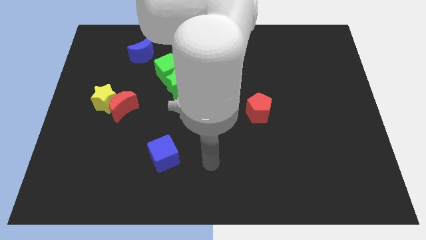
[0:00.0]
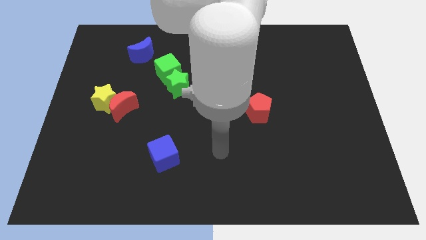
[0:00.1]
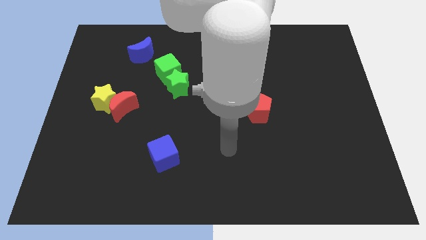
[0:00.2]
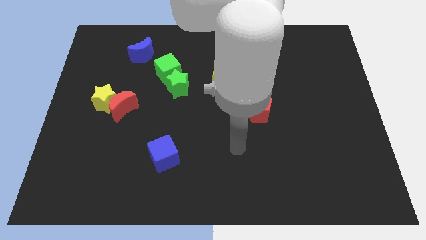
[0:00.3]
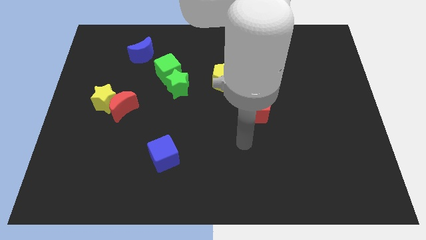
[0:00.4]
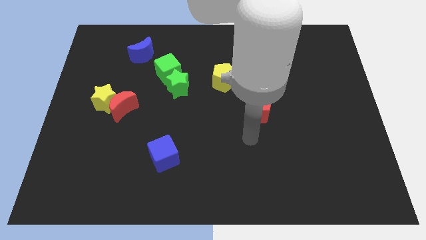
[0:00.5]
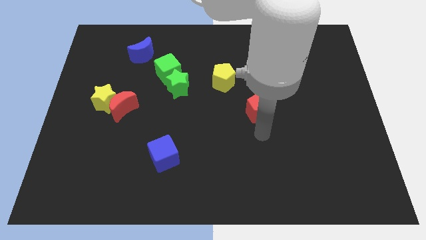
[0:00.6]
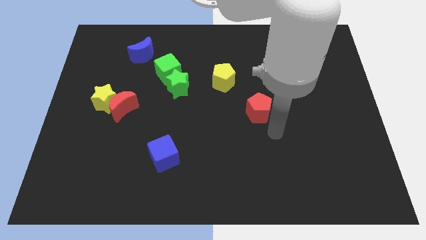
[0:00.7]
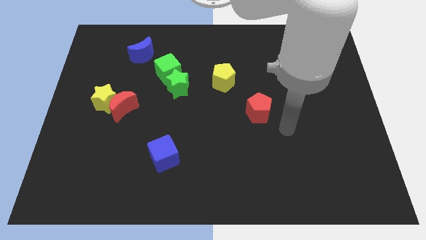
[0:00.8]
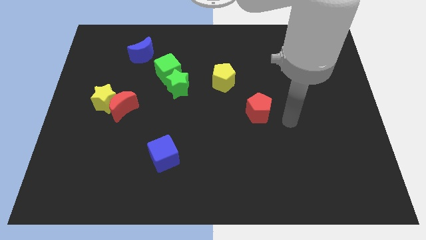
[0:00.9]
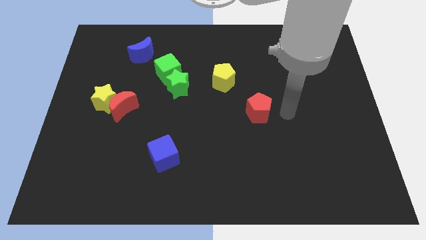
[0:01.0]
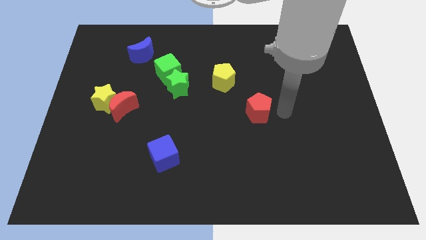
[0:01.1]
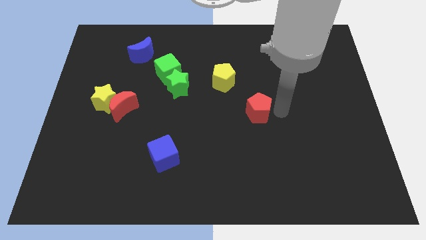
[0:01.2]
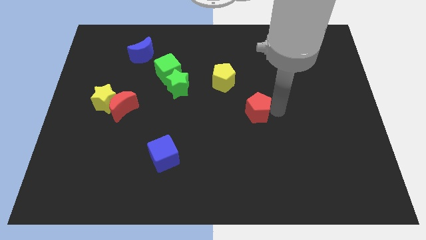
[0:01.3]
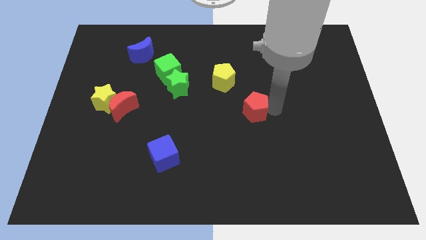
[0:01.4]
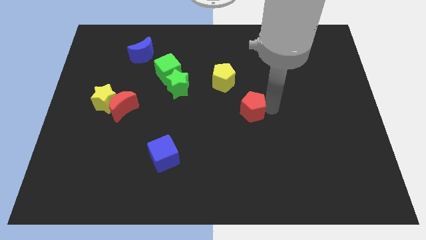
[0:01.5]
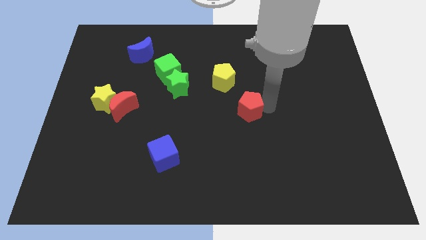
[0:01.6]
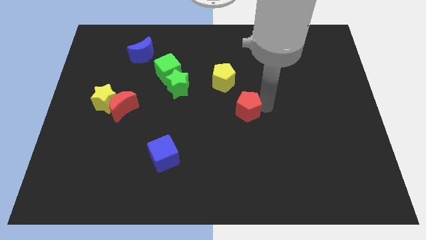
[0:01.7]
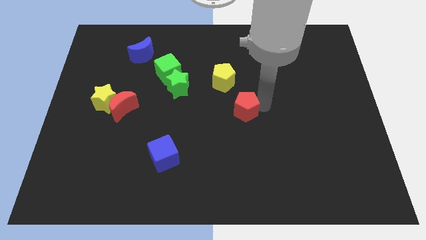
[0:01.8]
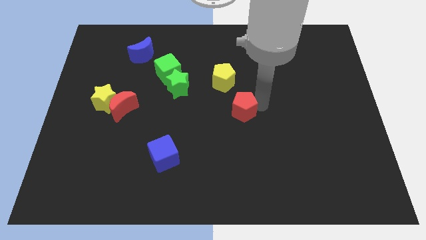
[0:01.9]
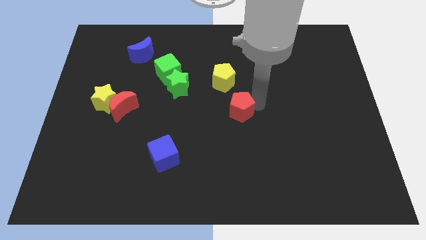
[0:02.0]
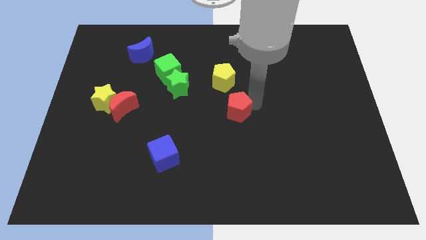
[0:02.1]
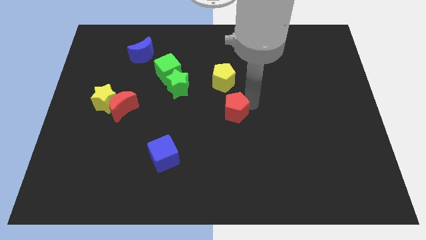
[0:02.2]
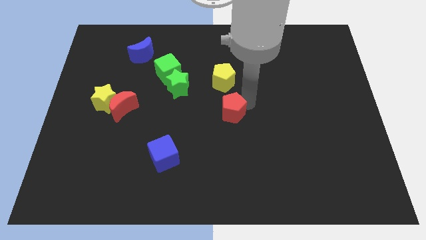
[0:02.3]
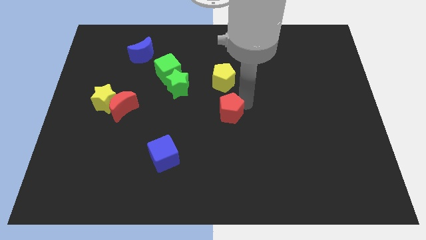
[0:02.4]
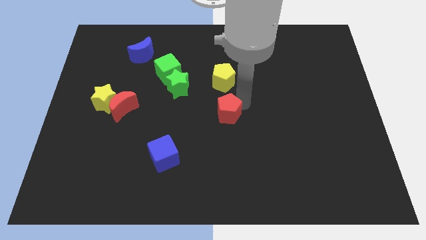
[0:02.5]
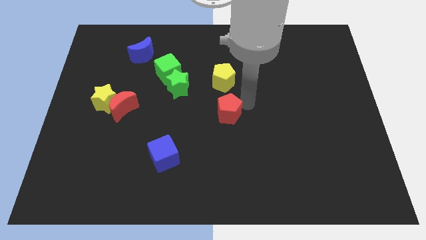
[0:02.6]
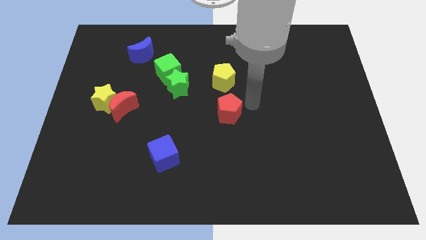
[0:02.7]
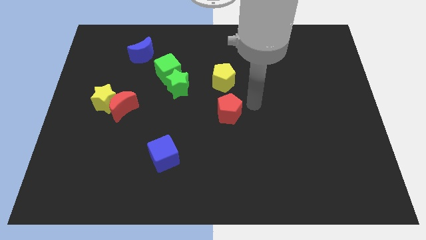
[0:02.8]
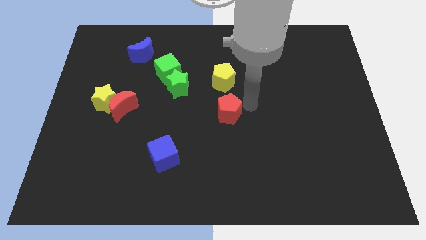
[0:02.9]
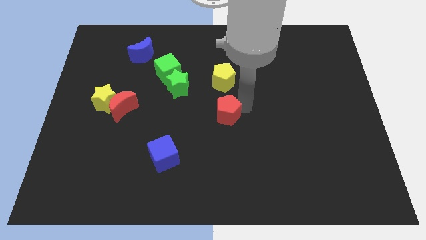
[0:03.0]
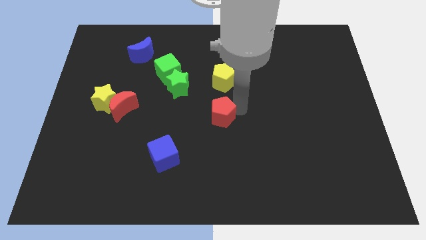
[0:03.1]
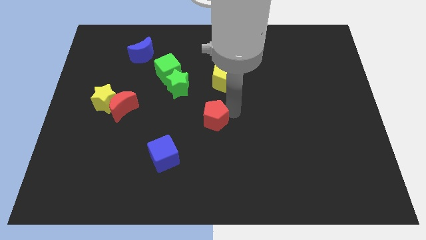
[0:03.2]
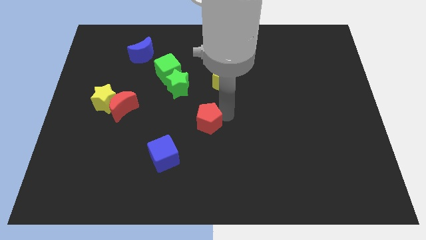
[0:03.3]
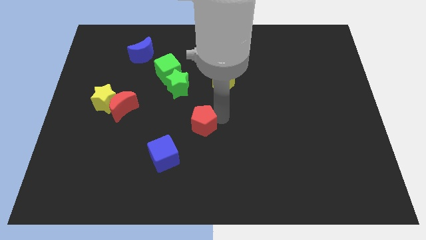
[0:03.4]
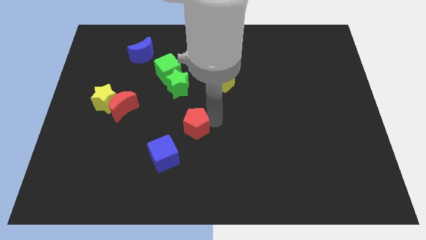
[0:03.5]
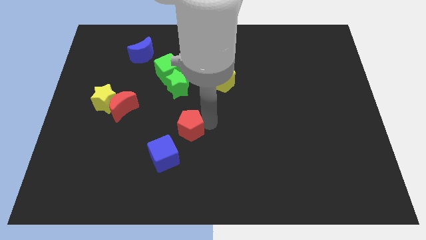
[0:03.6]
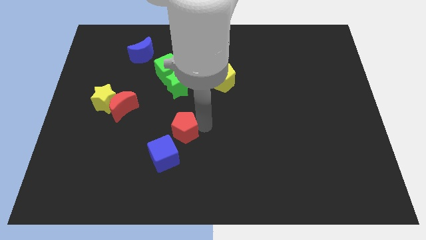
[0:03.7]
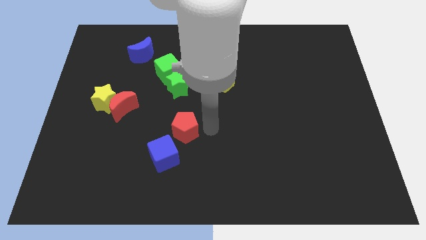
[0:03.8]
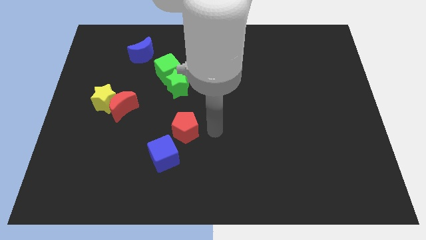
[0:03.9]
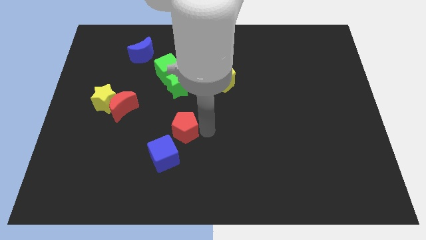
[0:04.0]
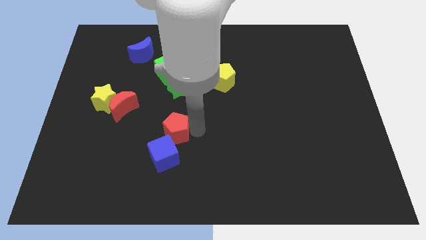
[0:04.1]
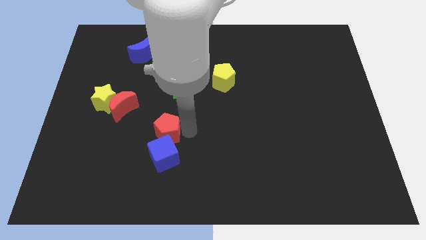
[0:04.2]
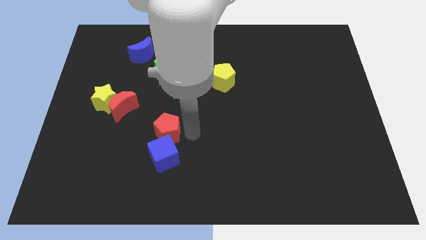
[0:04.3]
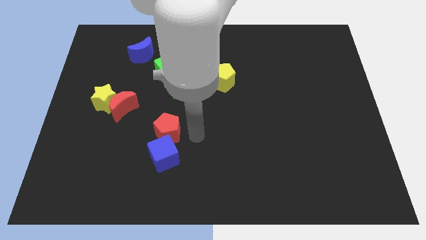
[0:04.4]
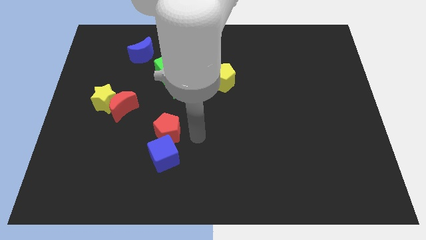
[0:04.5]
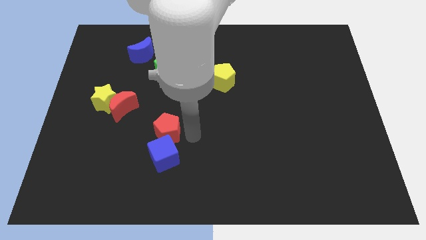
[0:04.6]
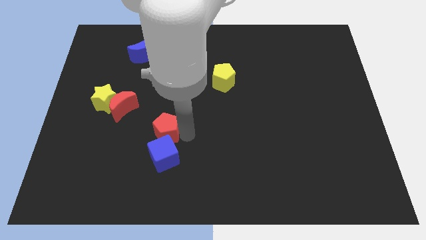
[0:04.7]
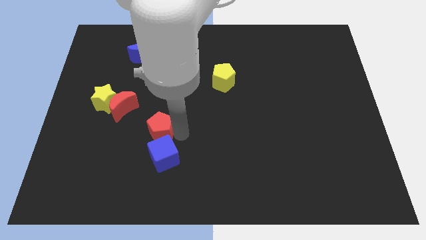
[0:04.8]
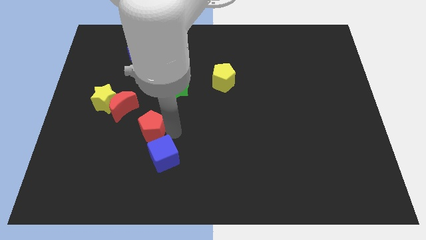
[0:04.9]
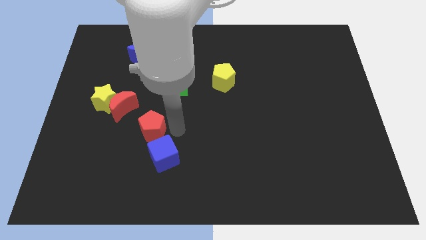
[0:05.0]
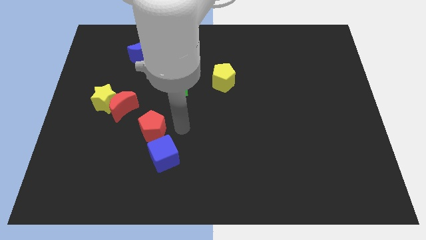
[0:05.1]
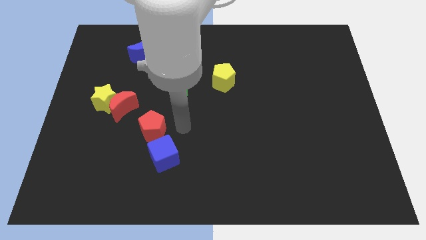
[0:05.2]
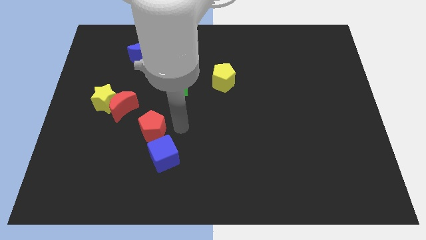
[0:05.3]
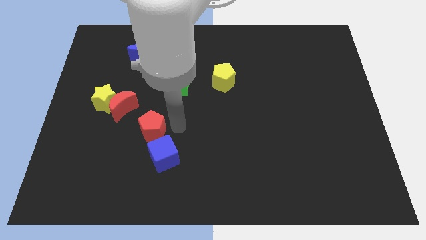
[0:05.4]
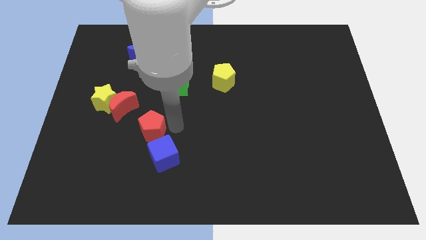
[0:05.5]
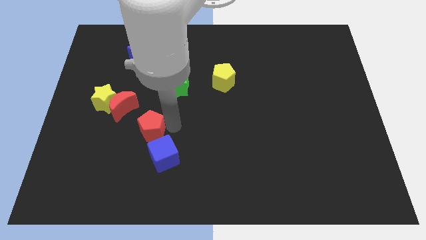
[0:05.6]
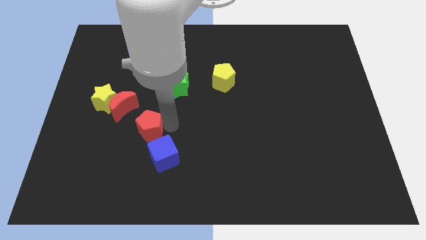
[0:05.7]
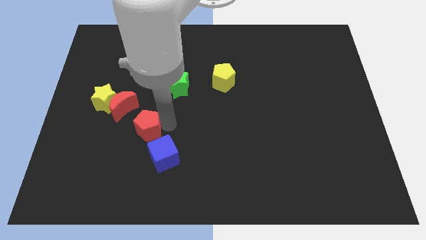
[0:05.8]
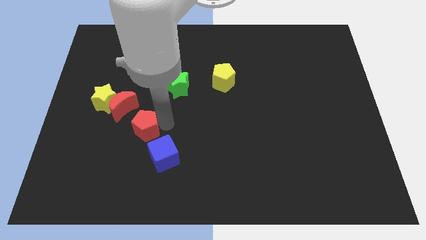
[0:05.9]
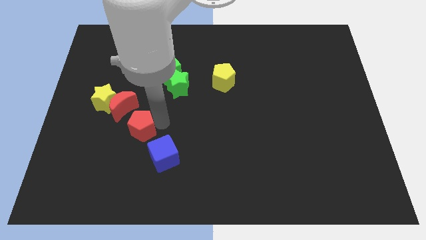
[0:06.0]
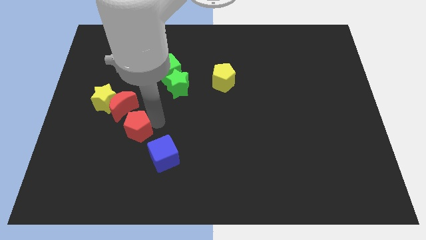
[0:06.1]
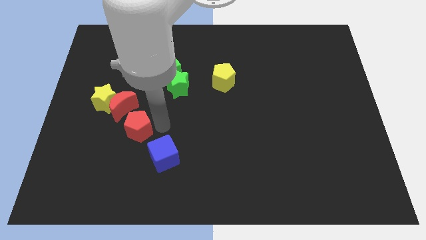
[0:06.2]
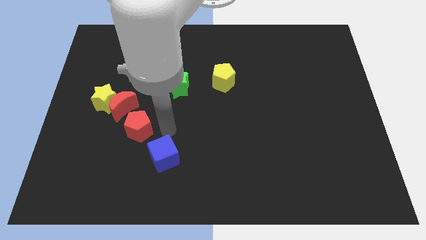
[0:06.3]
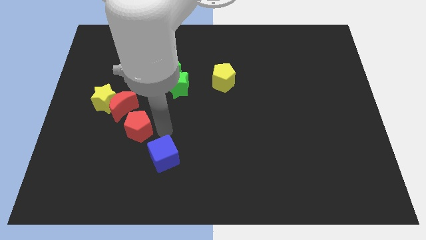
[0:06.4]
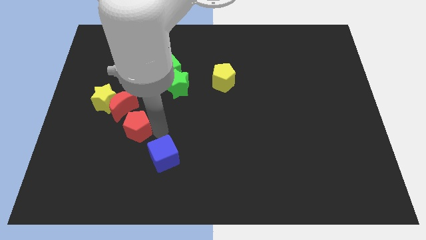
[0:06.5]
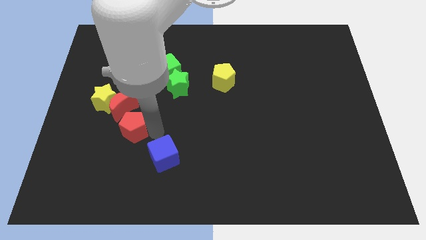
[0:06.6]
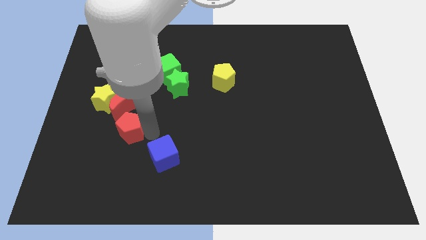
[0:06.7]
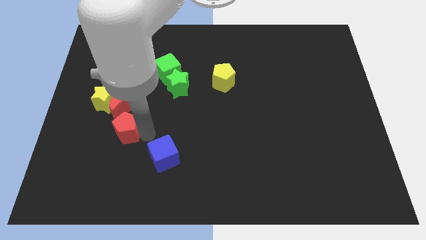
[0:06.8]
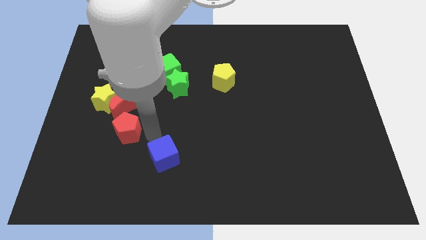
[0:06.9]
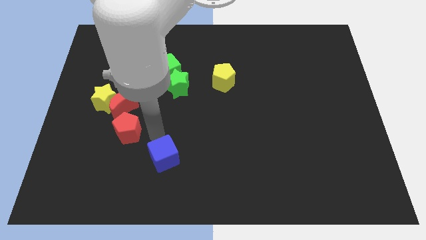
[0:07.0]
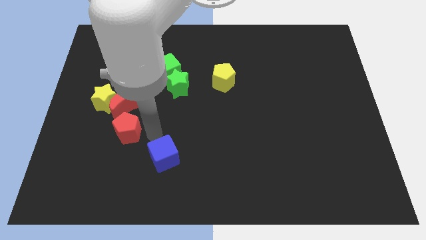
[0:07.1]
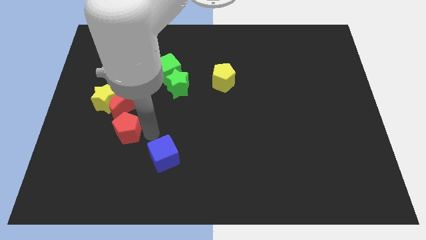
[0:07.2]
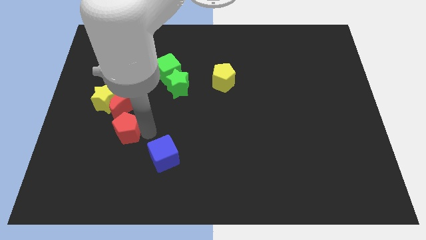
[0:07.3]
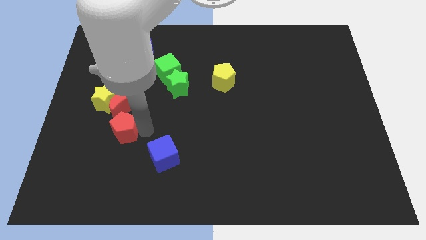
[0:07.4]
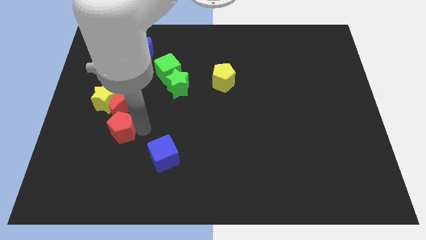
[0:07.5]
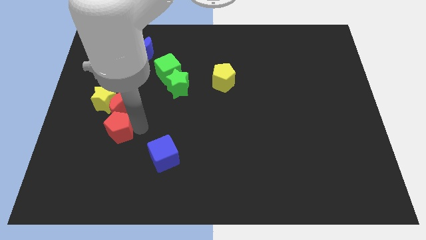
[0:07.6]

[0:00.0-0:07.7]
move the red pentagon to the bottom left of the red moon
